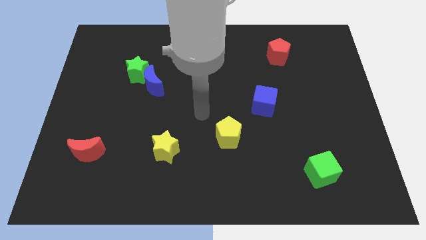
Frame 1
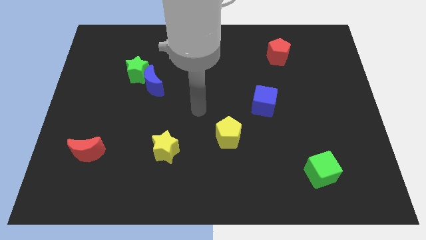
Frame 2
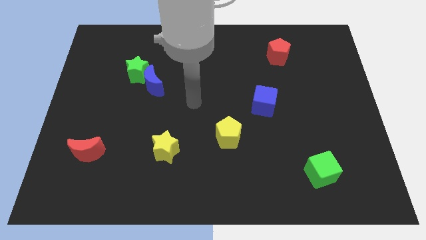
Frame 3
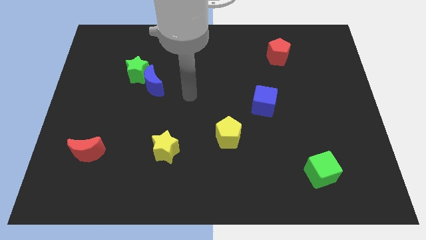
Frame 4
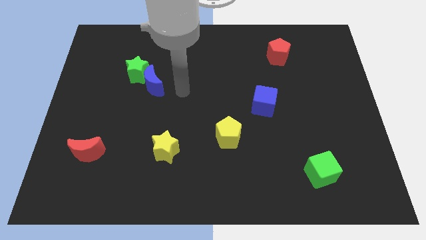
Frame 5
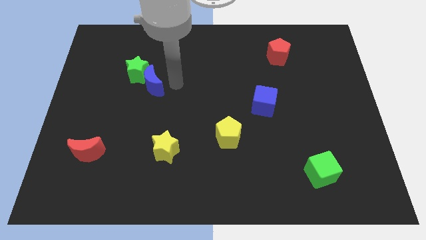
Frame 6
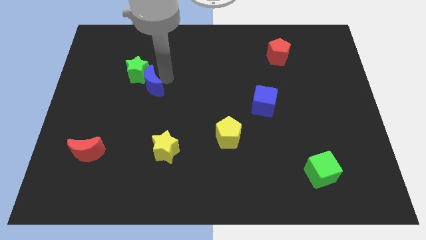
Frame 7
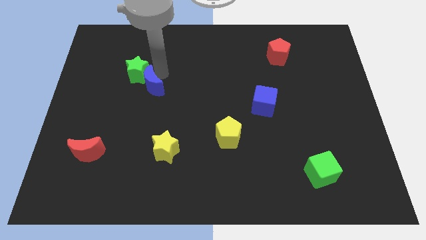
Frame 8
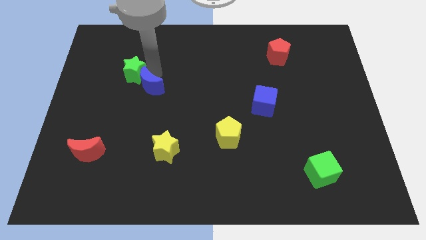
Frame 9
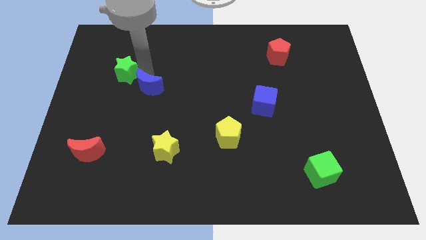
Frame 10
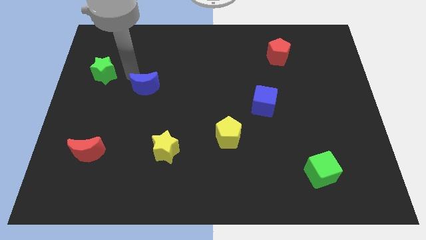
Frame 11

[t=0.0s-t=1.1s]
pull the blue moon apart from the green star

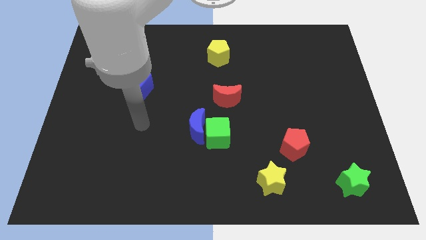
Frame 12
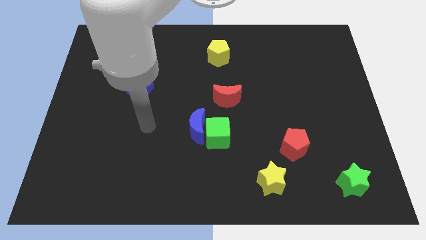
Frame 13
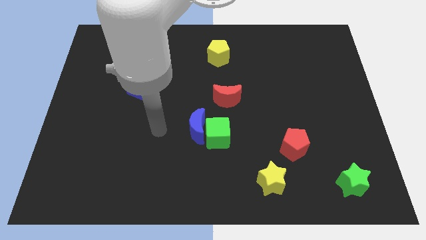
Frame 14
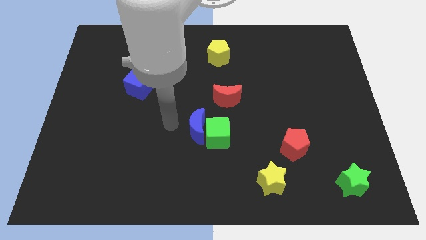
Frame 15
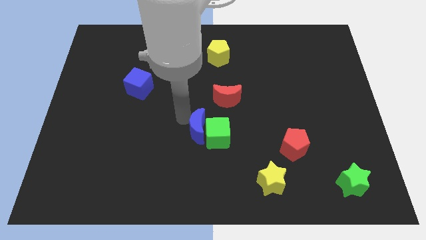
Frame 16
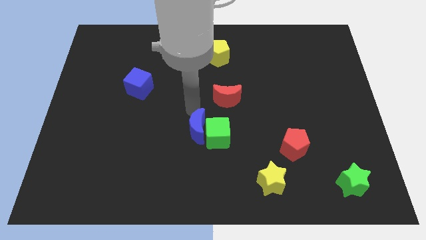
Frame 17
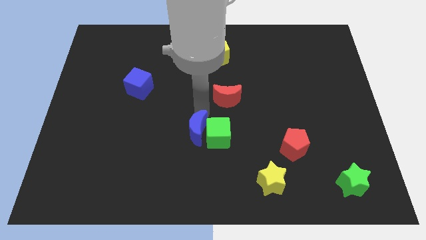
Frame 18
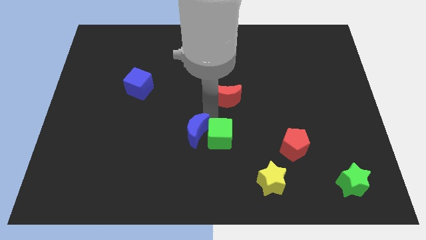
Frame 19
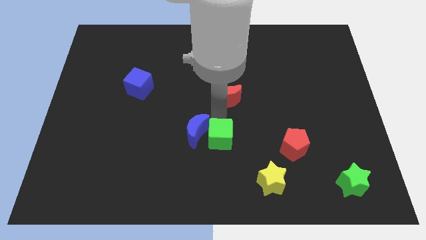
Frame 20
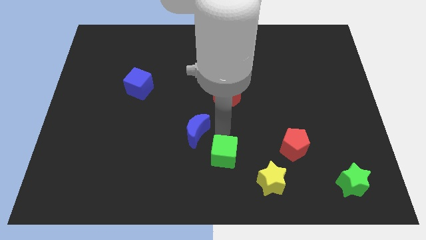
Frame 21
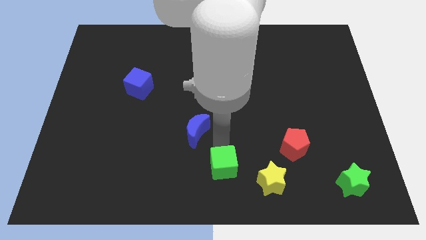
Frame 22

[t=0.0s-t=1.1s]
pull the blue moon apart from the green cube

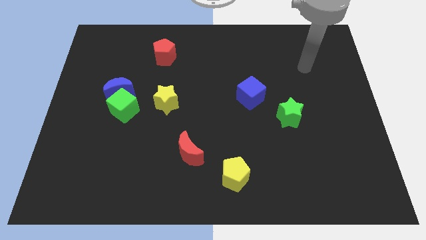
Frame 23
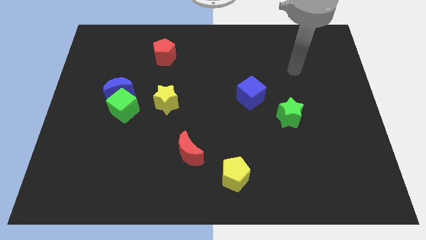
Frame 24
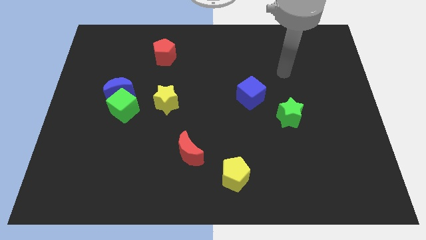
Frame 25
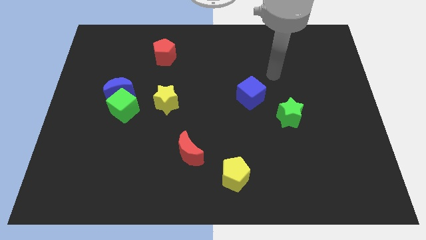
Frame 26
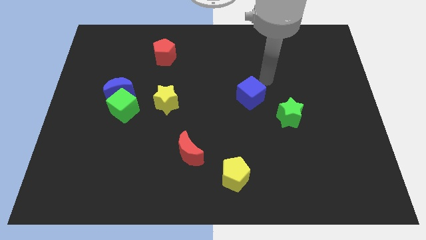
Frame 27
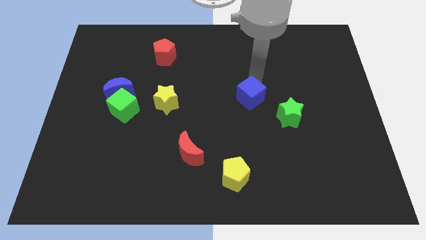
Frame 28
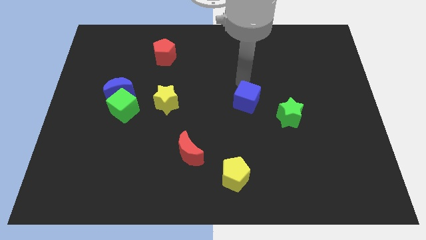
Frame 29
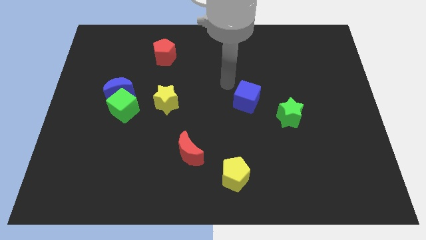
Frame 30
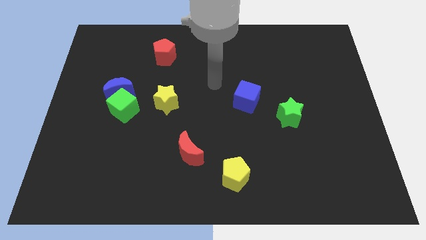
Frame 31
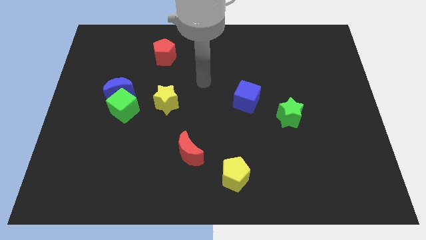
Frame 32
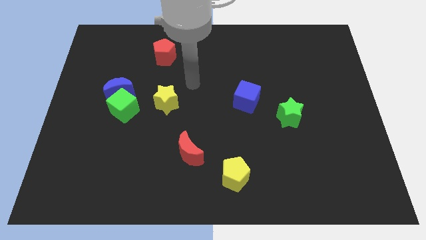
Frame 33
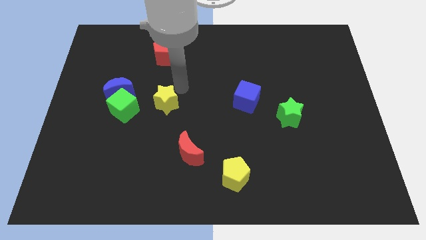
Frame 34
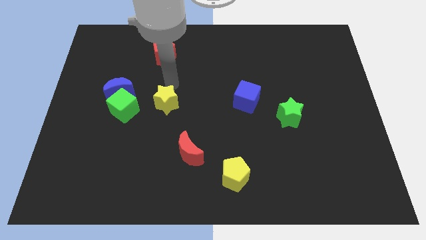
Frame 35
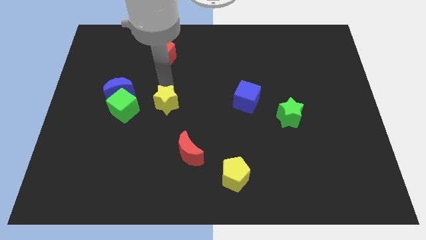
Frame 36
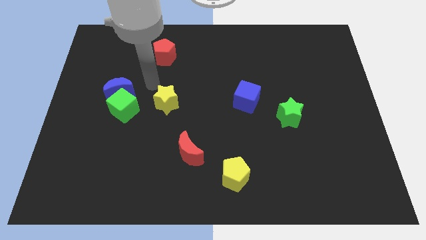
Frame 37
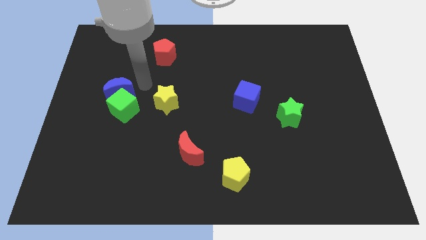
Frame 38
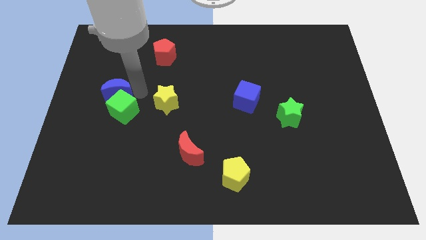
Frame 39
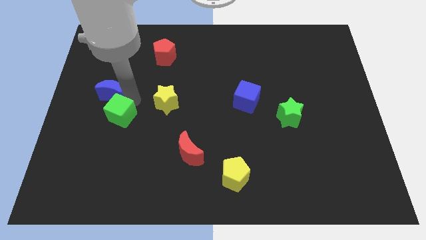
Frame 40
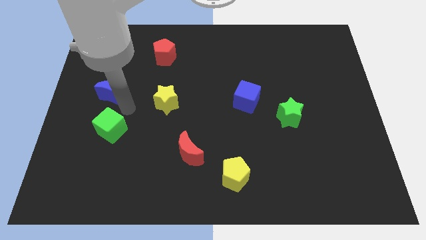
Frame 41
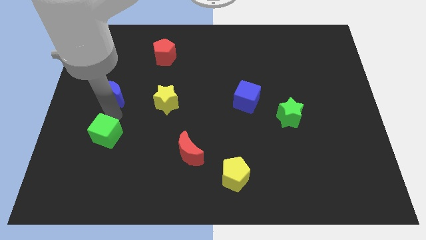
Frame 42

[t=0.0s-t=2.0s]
move the blue moon away from the green cube

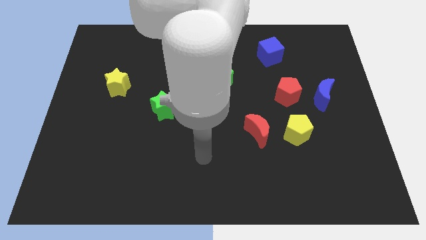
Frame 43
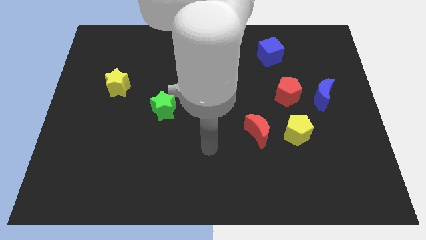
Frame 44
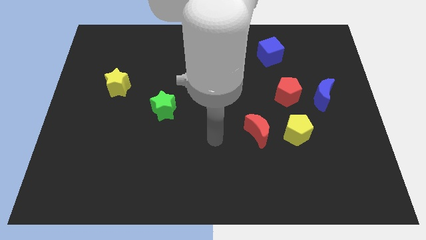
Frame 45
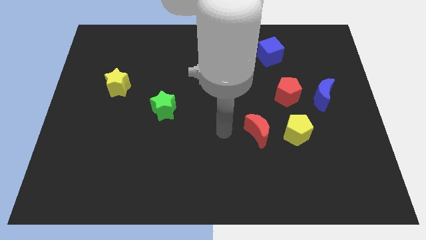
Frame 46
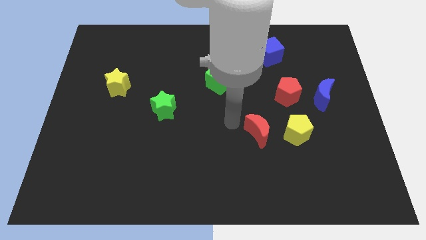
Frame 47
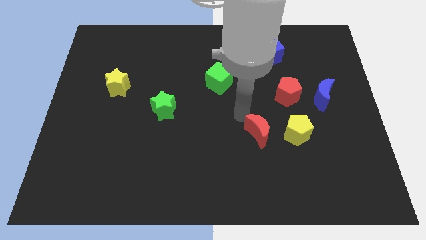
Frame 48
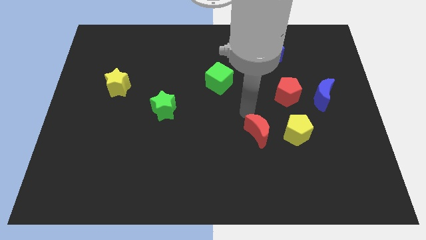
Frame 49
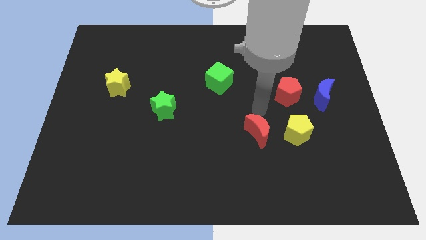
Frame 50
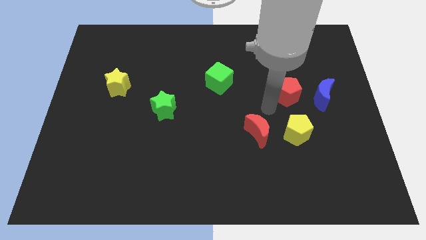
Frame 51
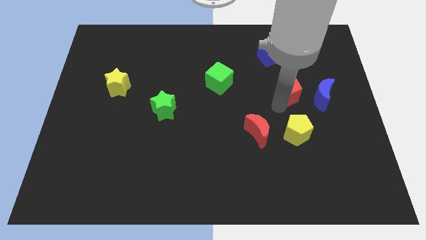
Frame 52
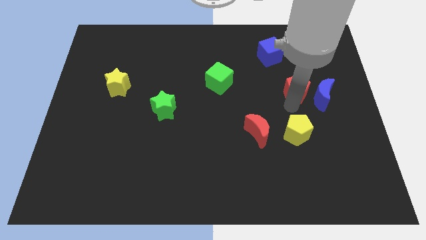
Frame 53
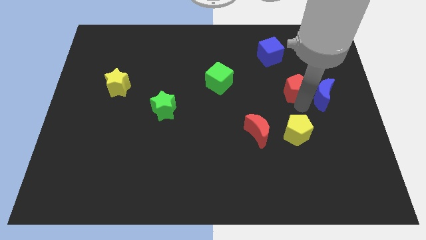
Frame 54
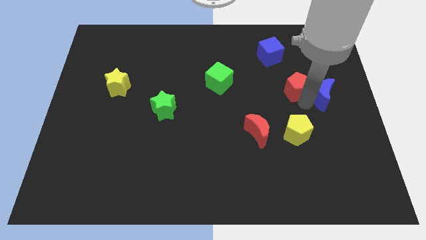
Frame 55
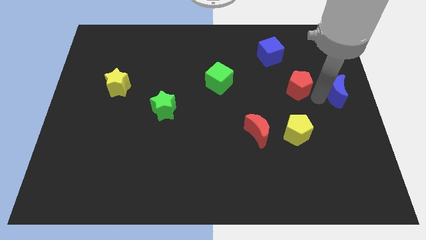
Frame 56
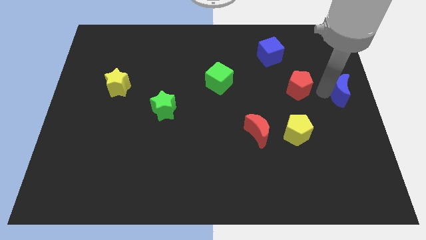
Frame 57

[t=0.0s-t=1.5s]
separate the red pentagon from the blue moon

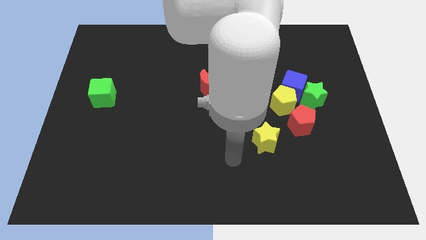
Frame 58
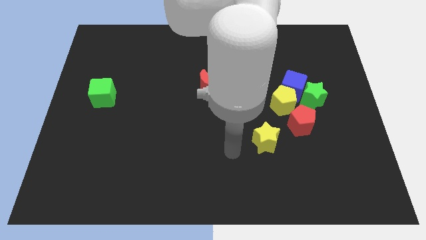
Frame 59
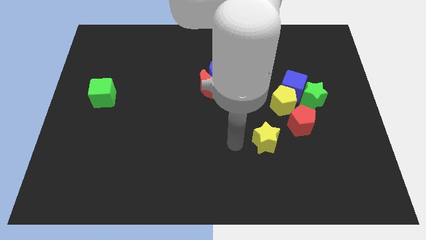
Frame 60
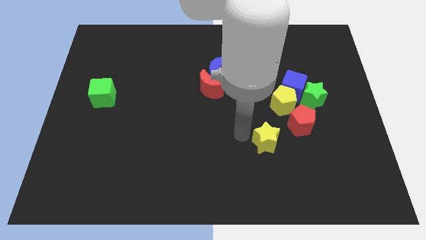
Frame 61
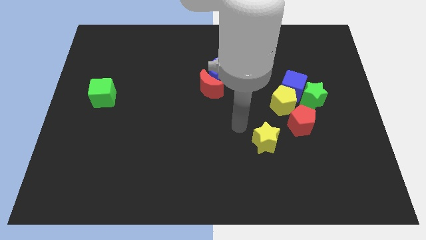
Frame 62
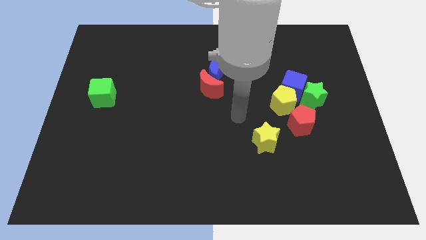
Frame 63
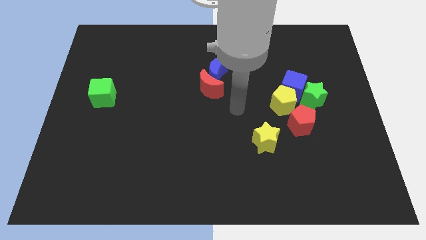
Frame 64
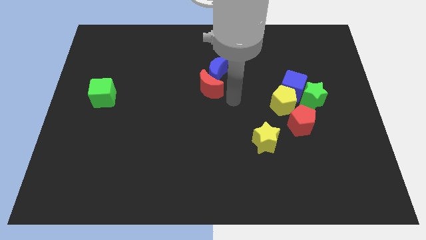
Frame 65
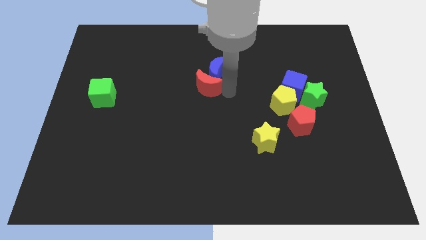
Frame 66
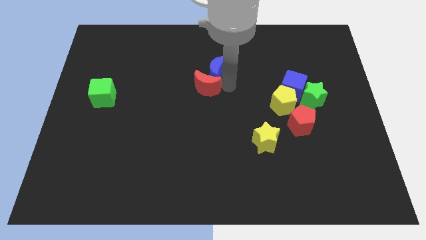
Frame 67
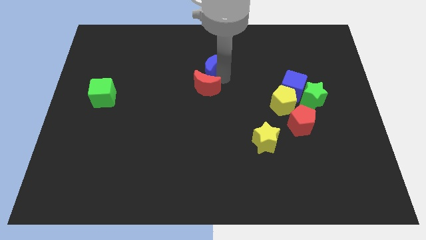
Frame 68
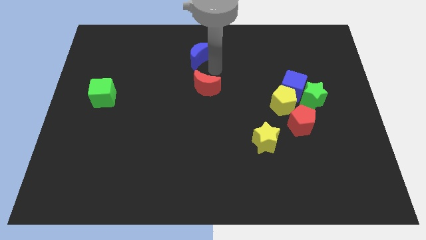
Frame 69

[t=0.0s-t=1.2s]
pull the red moon apart from the blue moon

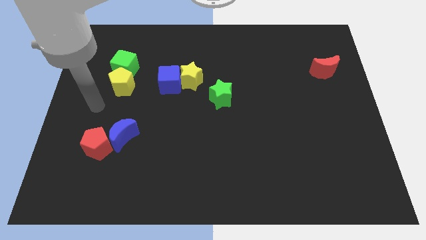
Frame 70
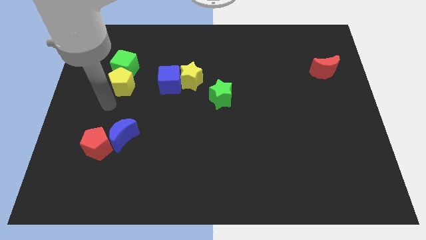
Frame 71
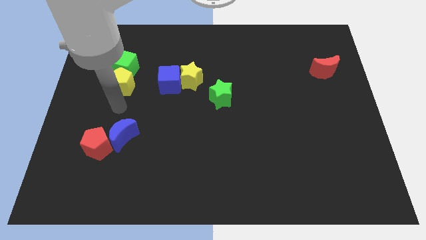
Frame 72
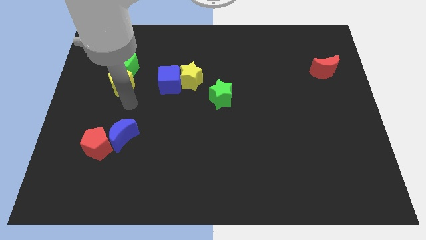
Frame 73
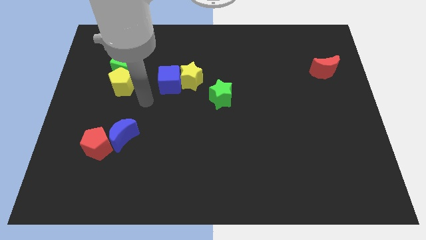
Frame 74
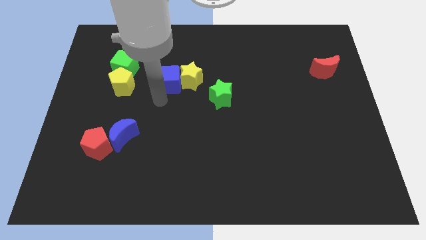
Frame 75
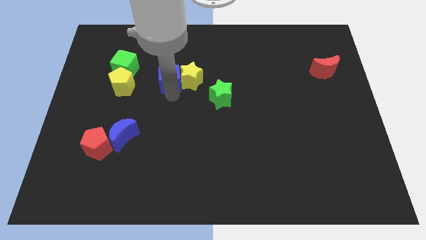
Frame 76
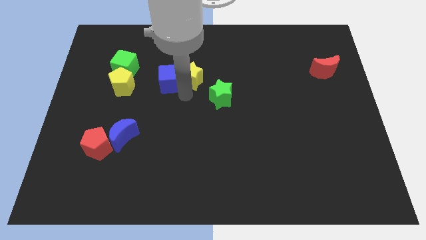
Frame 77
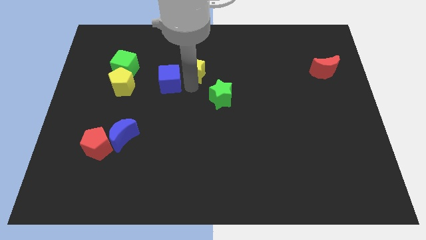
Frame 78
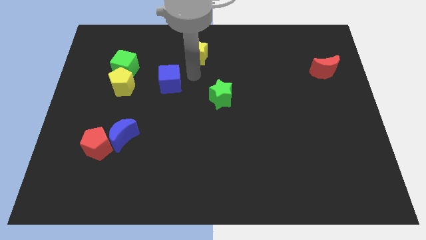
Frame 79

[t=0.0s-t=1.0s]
separate the blue cube from the yellow star

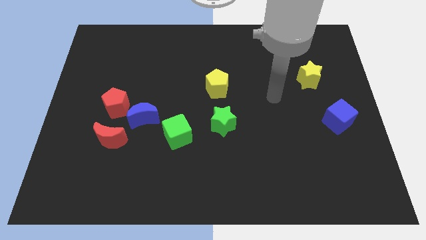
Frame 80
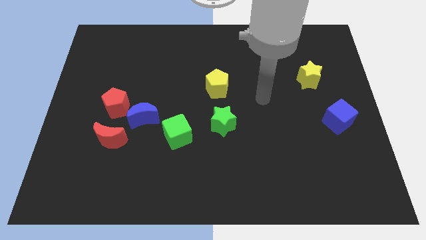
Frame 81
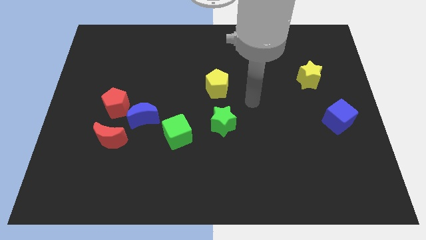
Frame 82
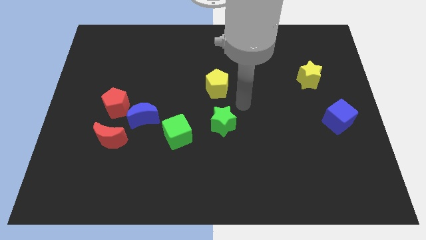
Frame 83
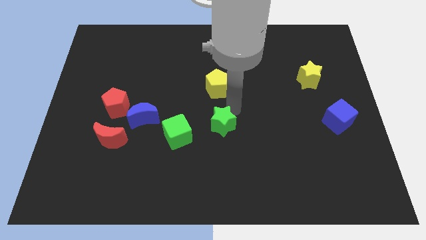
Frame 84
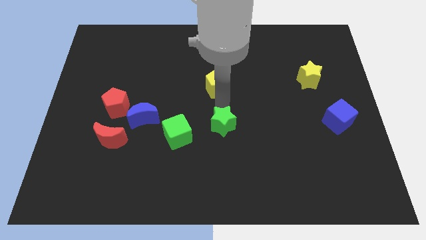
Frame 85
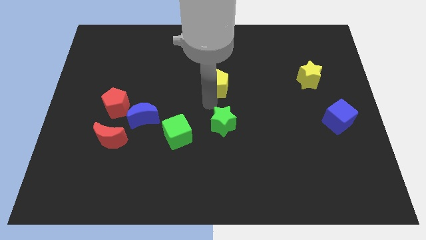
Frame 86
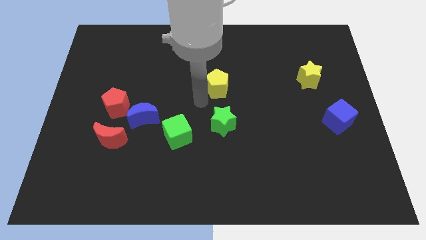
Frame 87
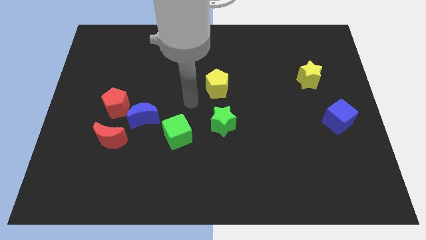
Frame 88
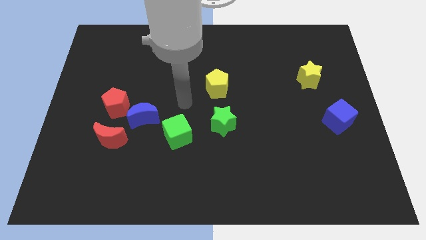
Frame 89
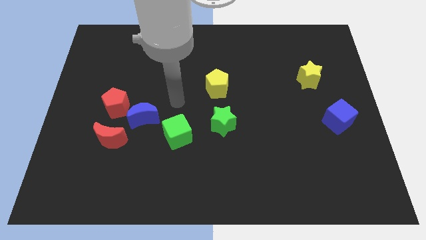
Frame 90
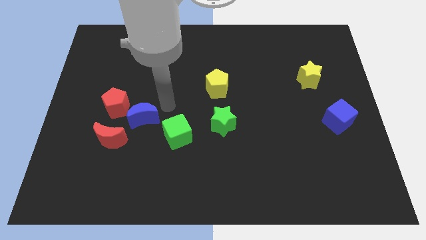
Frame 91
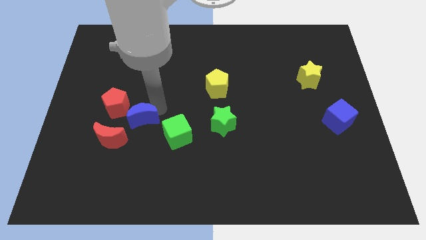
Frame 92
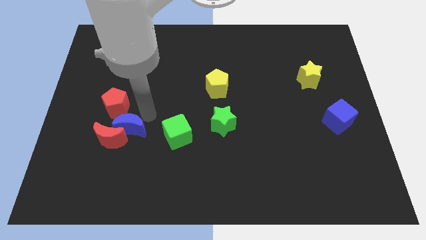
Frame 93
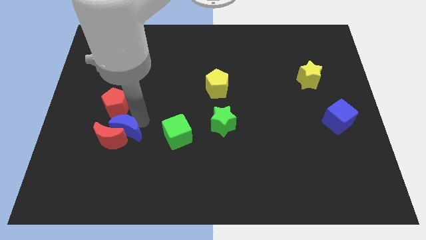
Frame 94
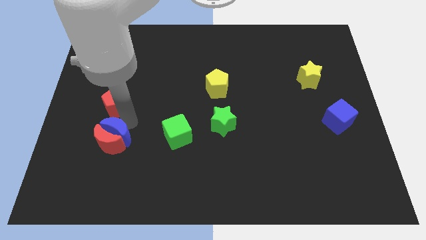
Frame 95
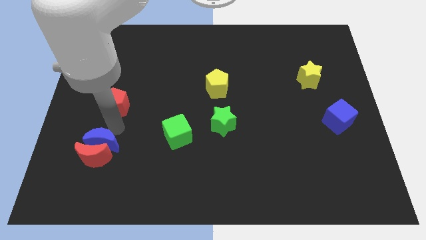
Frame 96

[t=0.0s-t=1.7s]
move the red pentagon away from the blue moon and red moon
